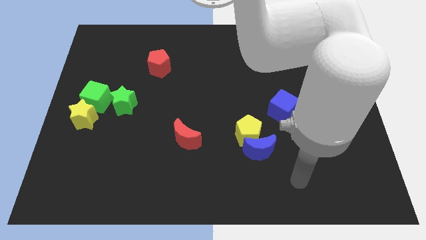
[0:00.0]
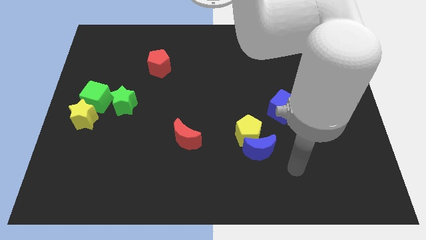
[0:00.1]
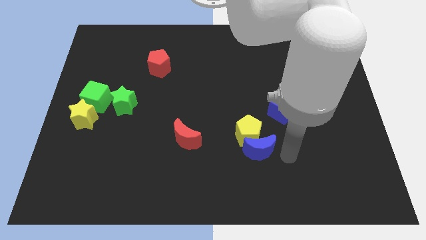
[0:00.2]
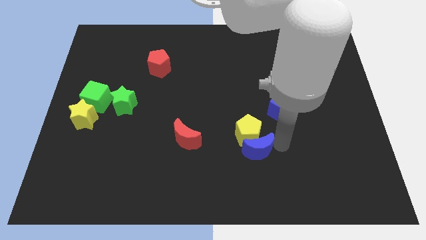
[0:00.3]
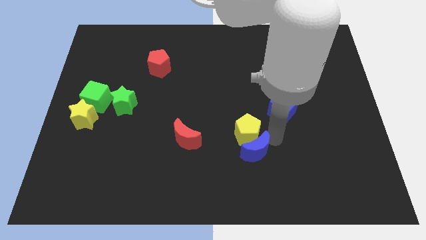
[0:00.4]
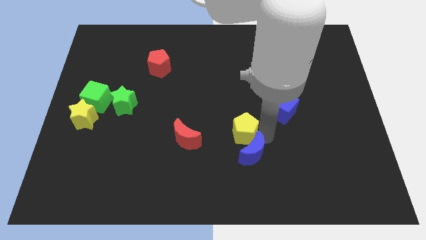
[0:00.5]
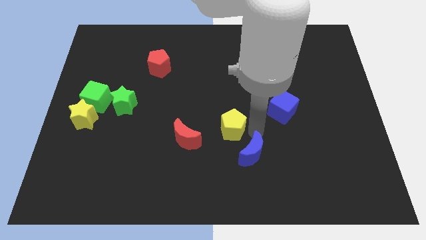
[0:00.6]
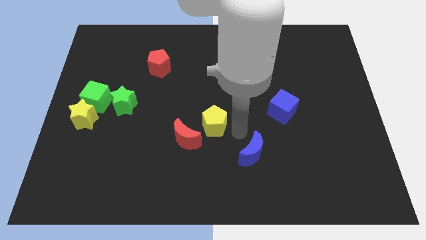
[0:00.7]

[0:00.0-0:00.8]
move the blue moon away from the yellow pentagon

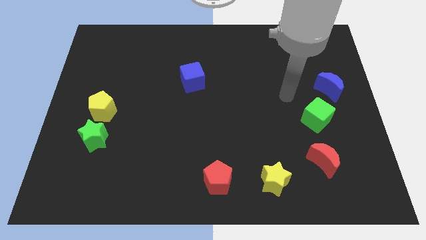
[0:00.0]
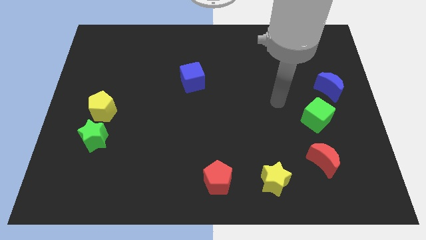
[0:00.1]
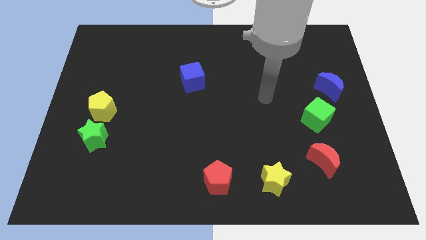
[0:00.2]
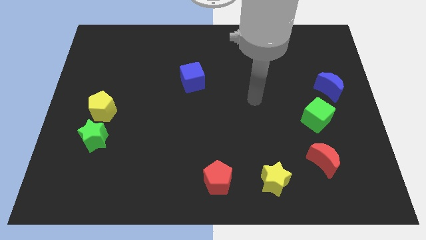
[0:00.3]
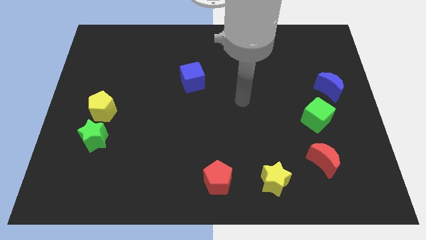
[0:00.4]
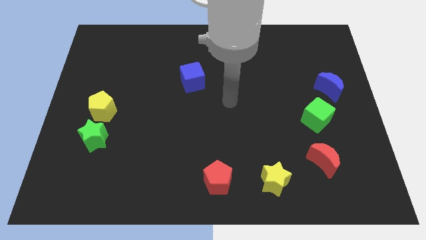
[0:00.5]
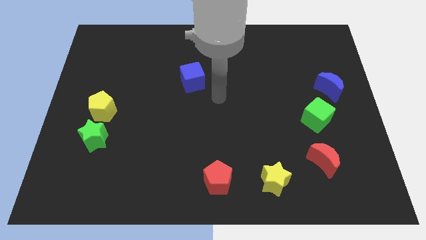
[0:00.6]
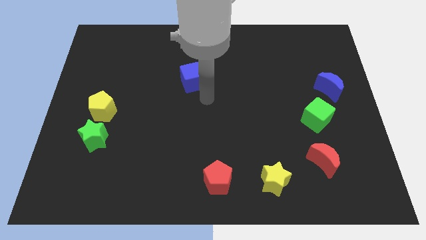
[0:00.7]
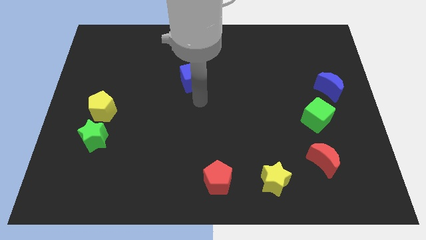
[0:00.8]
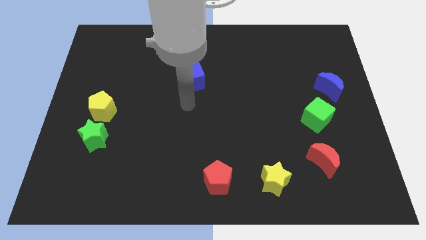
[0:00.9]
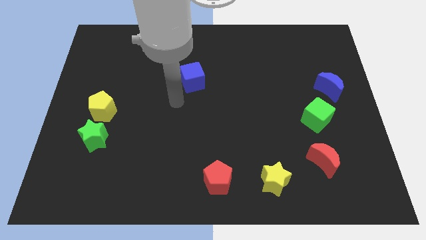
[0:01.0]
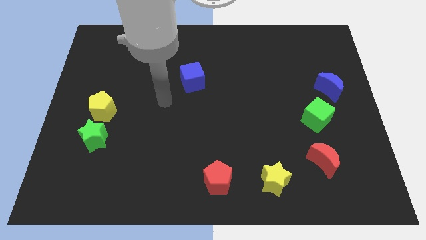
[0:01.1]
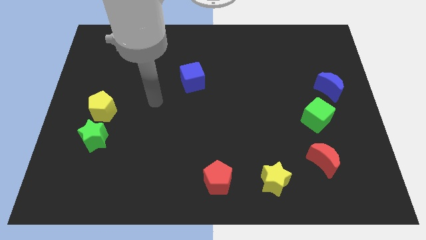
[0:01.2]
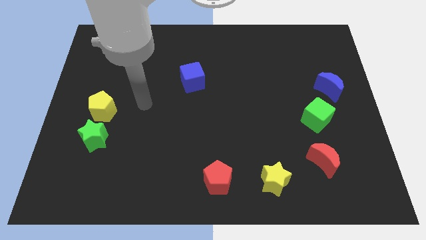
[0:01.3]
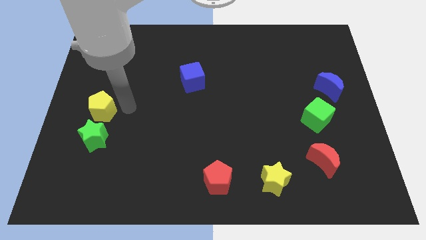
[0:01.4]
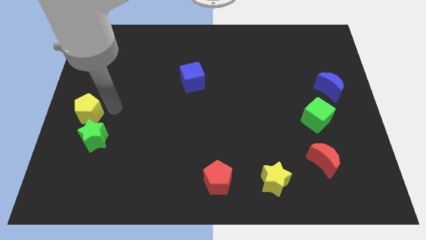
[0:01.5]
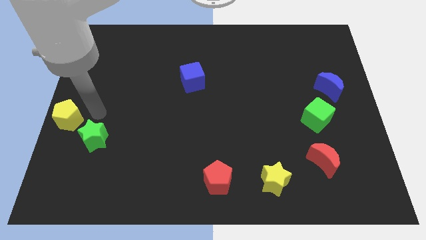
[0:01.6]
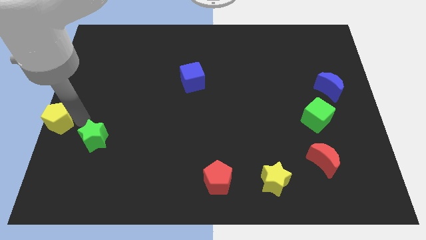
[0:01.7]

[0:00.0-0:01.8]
separate the green star from the yellow pentagon

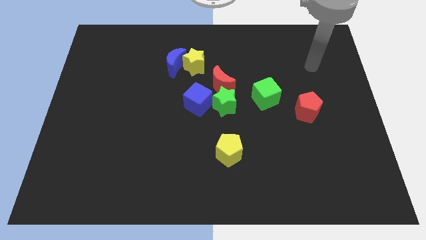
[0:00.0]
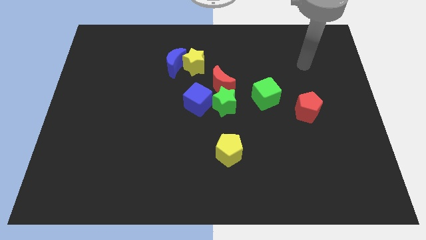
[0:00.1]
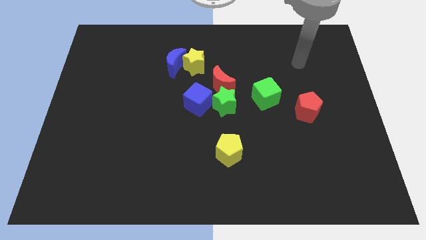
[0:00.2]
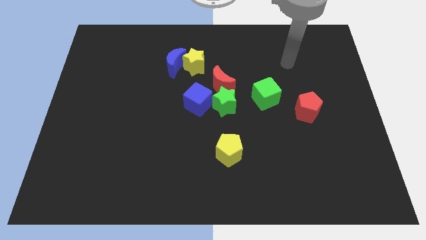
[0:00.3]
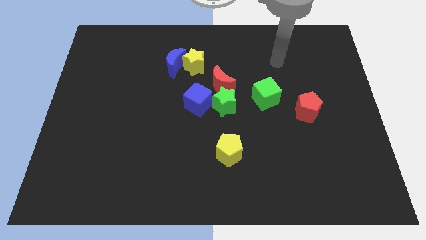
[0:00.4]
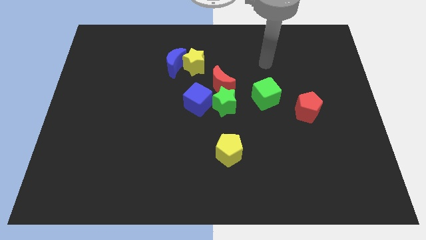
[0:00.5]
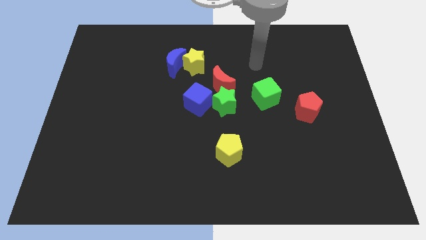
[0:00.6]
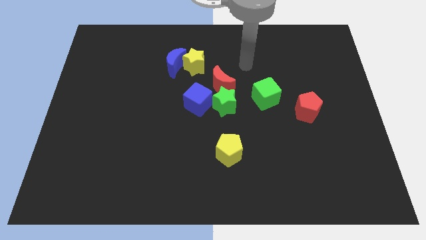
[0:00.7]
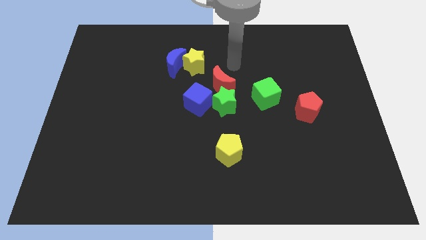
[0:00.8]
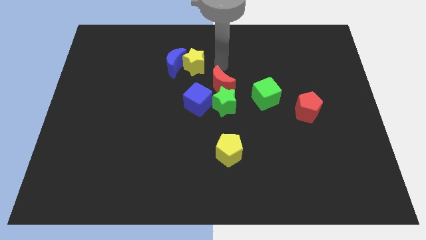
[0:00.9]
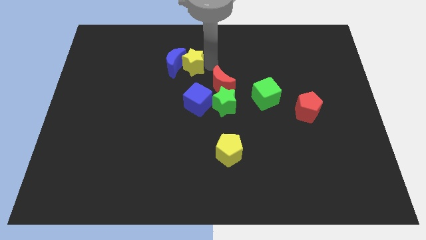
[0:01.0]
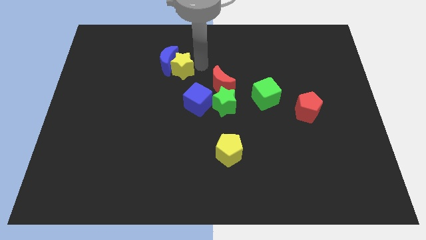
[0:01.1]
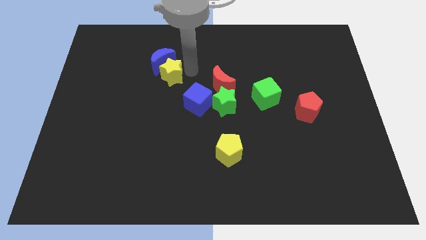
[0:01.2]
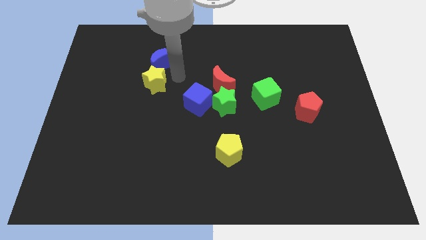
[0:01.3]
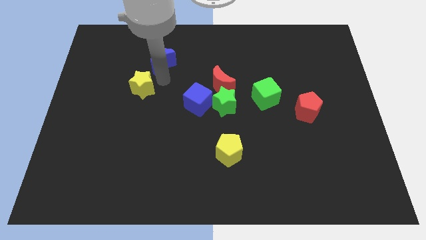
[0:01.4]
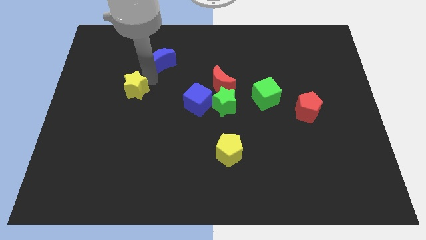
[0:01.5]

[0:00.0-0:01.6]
separate the blue moon from the yellow star

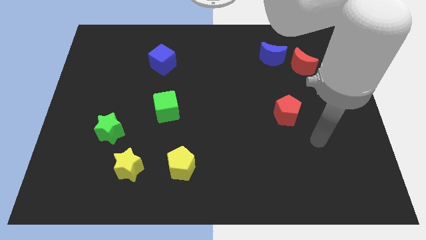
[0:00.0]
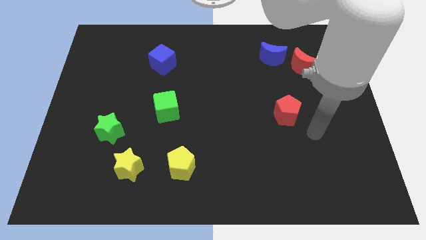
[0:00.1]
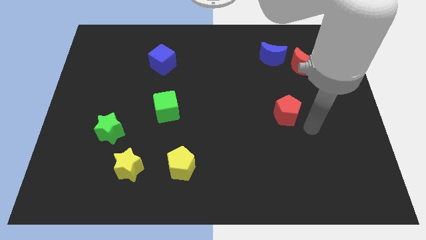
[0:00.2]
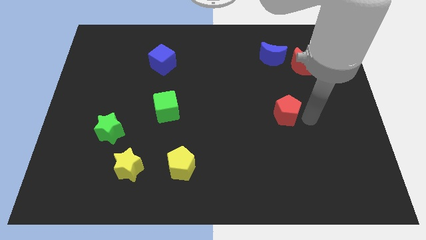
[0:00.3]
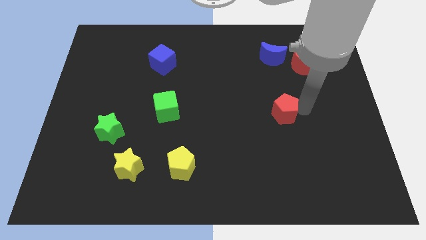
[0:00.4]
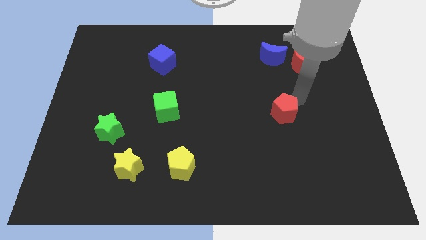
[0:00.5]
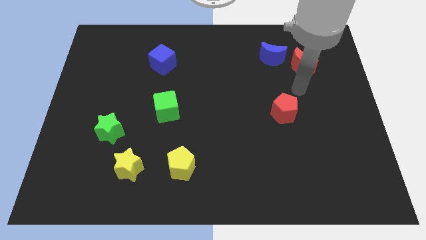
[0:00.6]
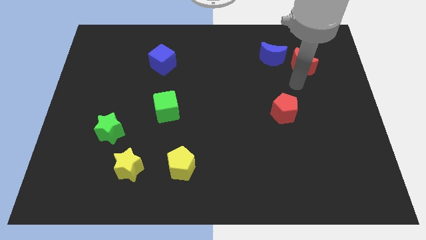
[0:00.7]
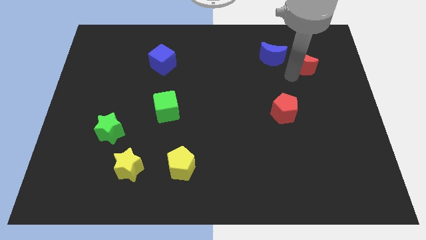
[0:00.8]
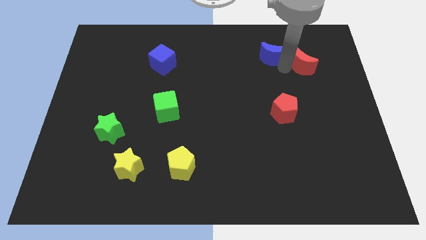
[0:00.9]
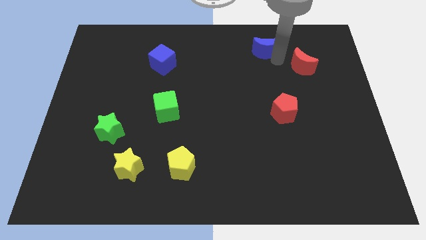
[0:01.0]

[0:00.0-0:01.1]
separate the red moon from the blue moon

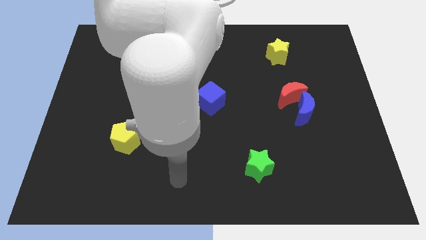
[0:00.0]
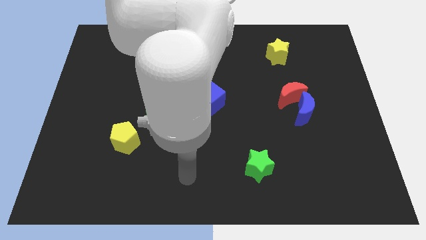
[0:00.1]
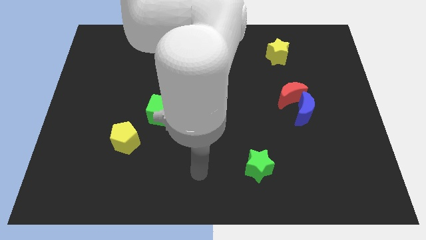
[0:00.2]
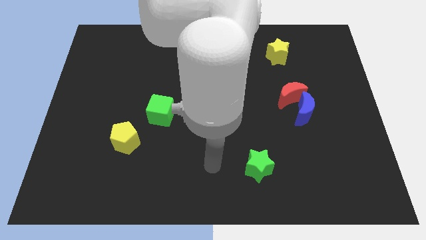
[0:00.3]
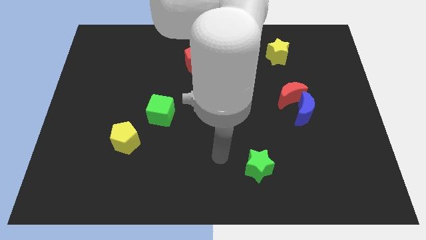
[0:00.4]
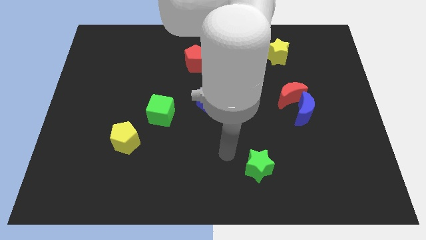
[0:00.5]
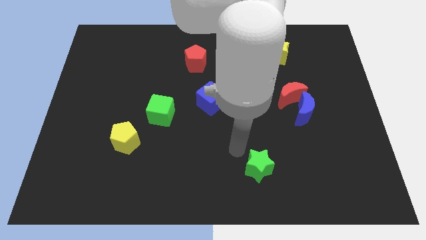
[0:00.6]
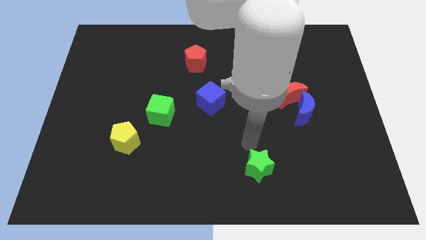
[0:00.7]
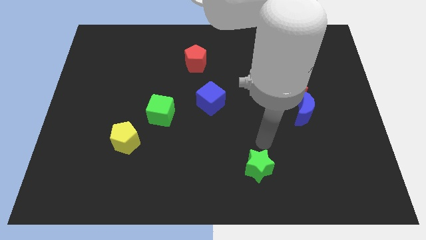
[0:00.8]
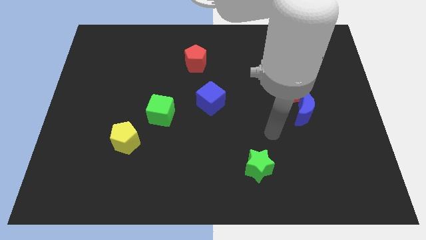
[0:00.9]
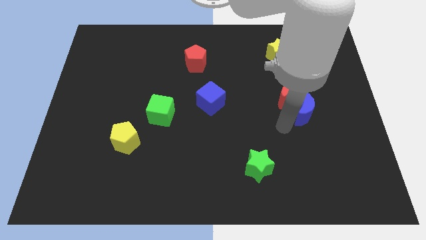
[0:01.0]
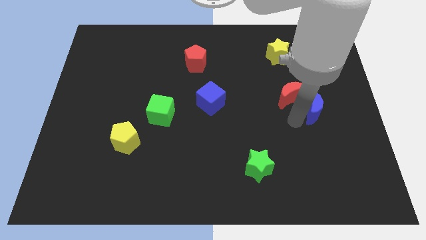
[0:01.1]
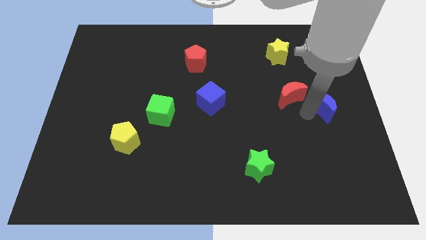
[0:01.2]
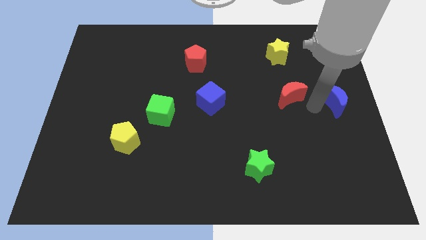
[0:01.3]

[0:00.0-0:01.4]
pull the red moon apart from the blue moon

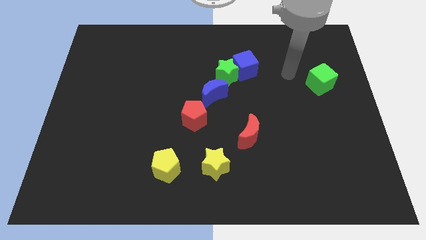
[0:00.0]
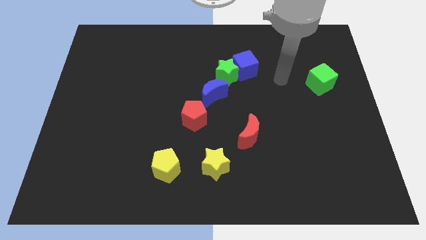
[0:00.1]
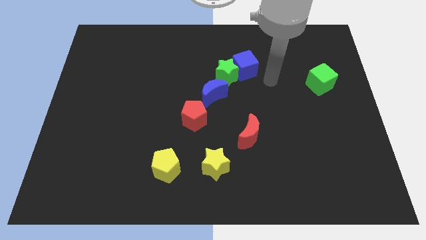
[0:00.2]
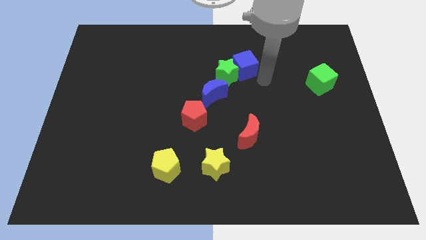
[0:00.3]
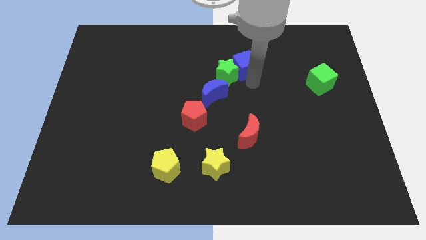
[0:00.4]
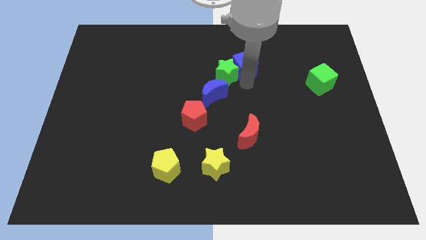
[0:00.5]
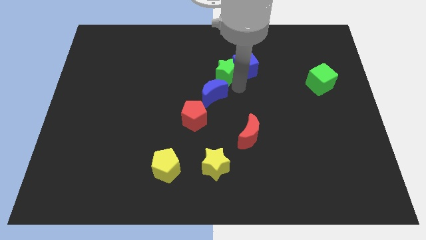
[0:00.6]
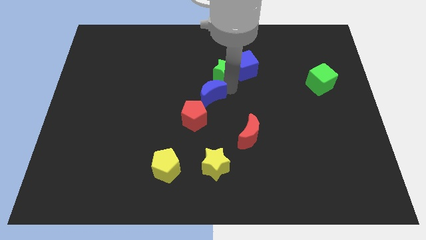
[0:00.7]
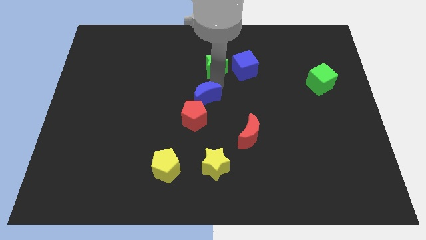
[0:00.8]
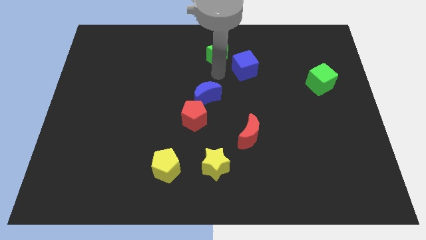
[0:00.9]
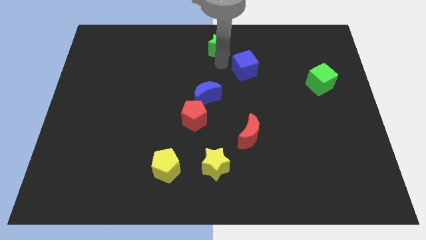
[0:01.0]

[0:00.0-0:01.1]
pull the blue cube apart from the green star

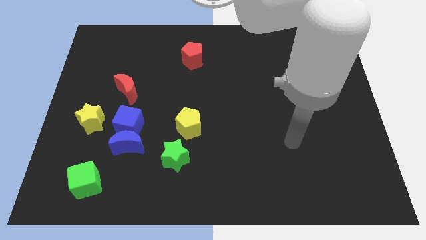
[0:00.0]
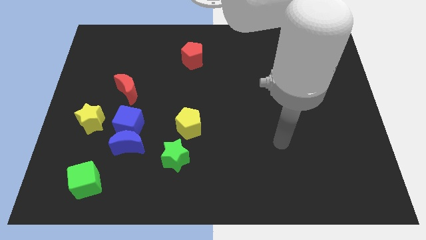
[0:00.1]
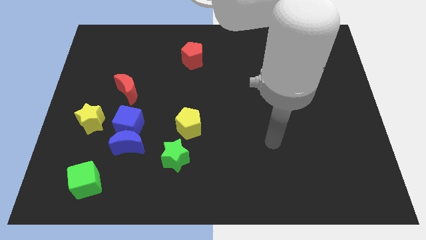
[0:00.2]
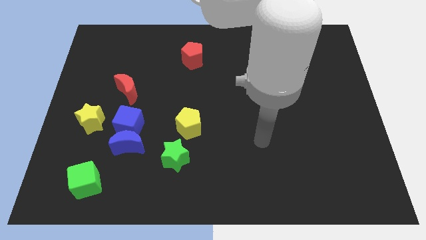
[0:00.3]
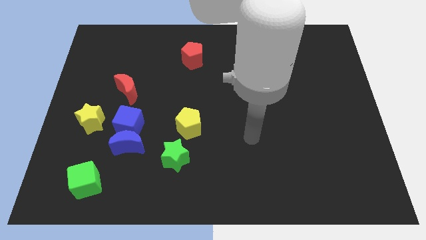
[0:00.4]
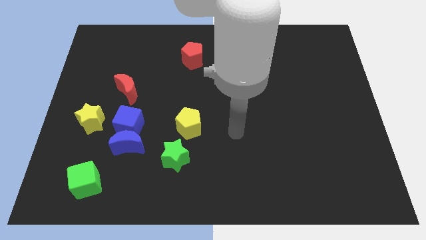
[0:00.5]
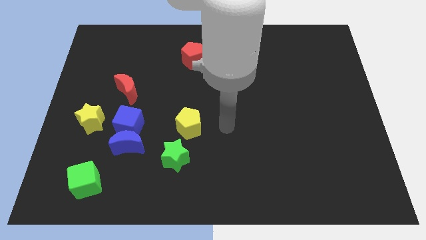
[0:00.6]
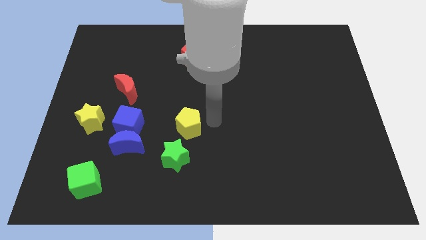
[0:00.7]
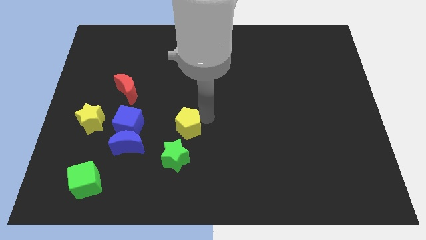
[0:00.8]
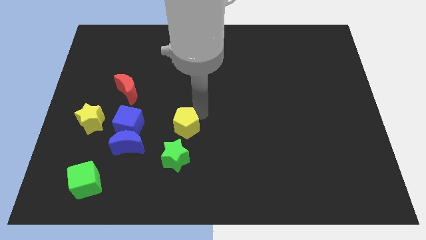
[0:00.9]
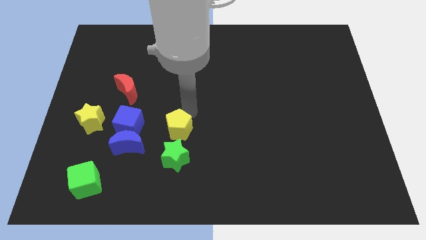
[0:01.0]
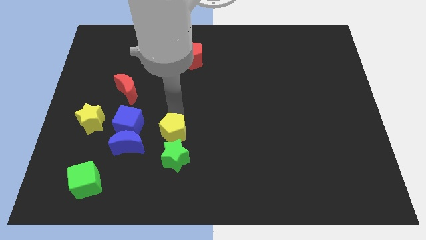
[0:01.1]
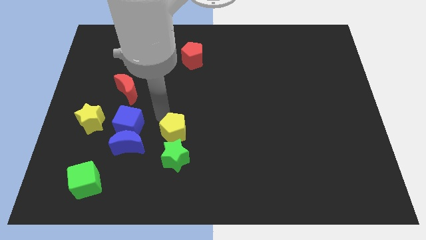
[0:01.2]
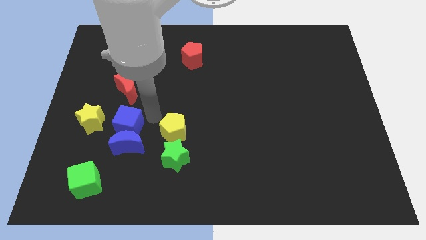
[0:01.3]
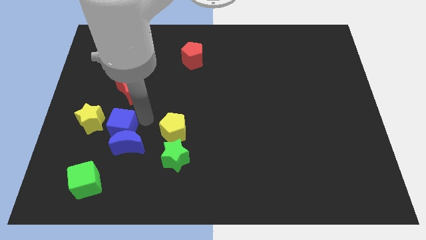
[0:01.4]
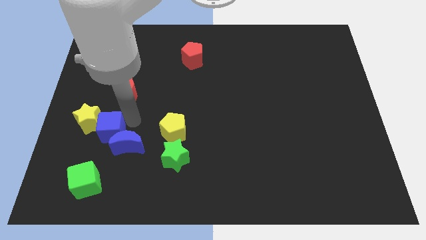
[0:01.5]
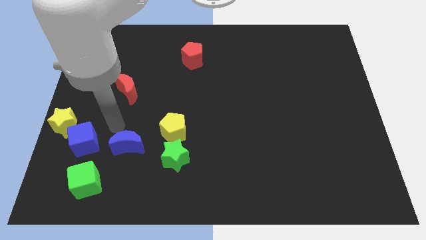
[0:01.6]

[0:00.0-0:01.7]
separate the blue moon from the blue cube
